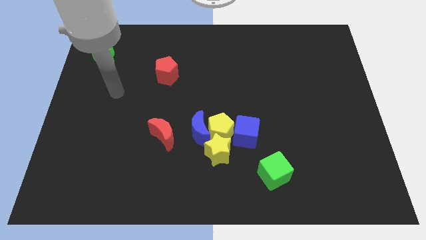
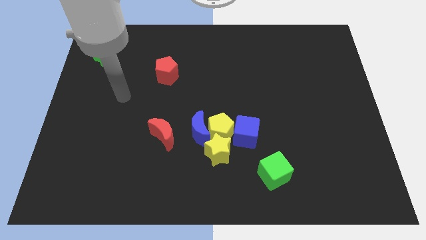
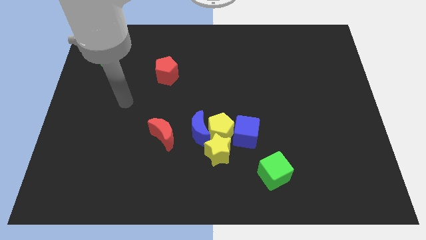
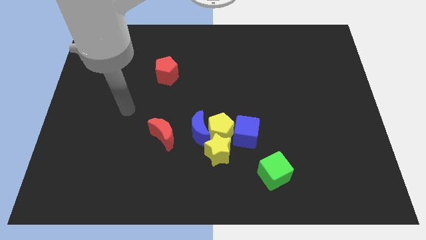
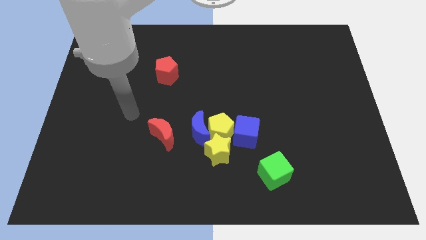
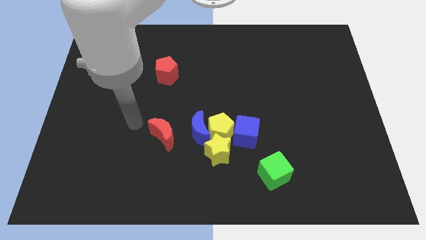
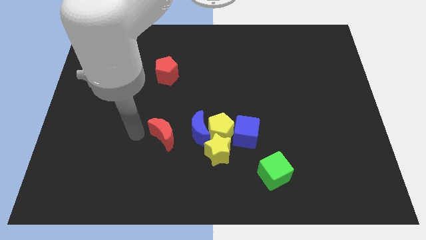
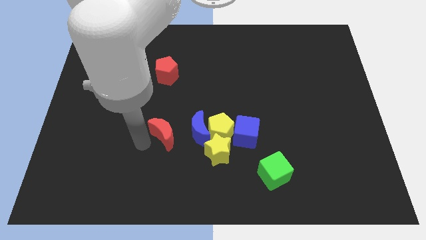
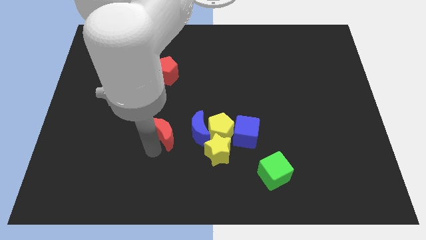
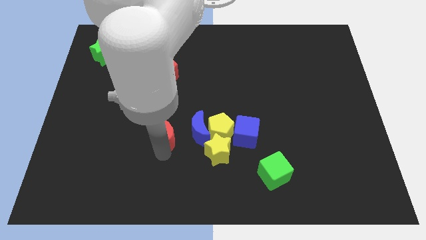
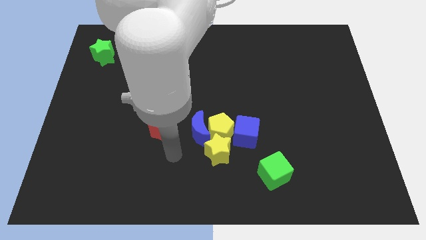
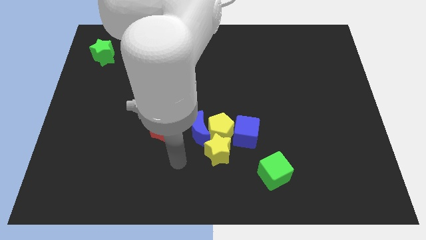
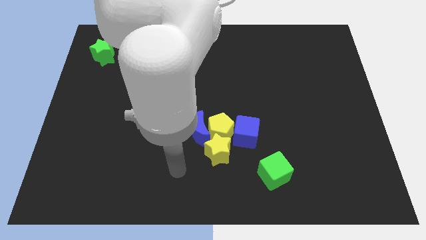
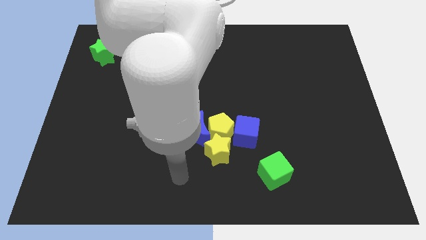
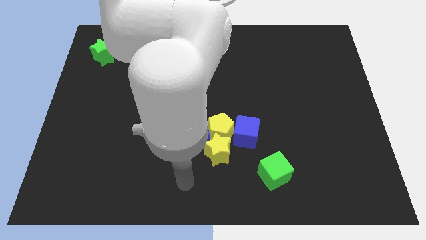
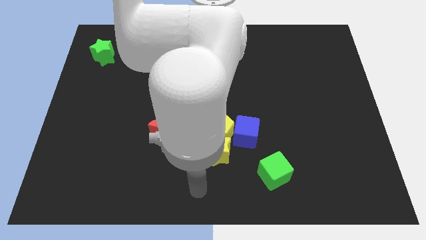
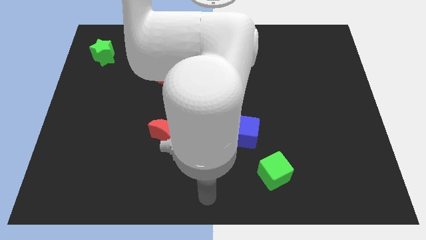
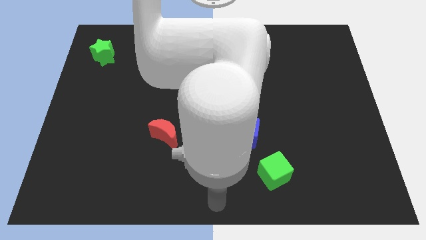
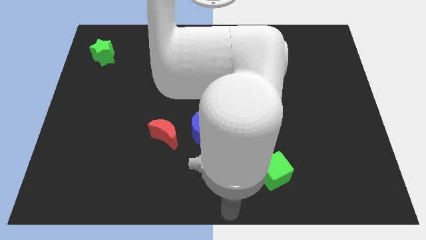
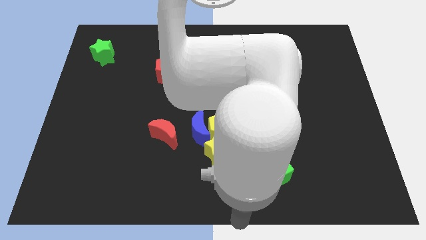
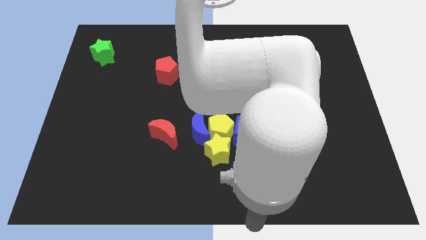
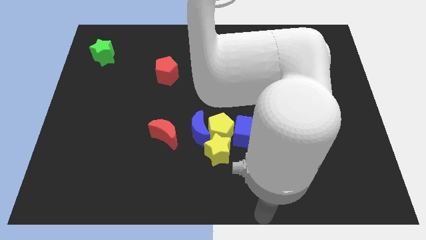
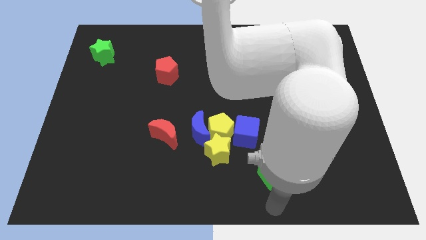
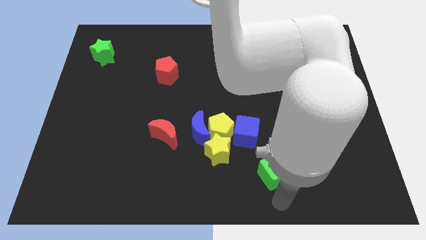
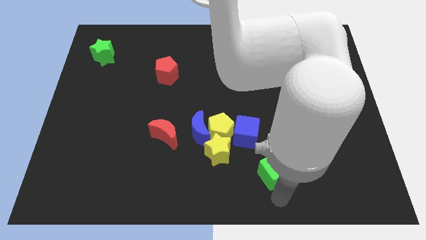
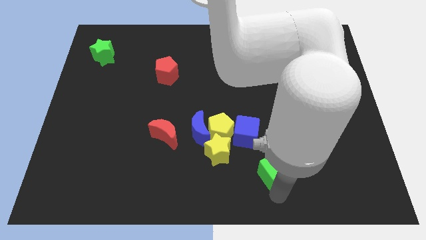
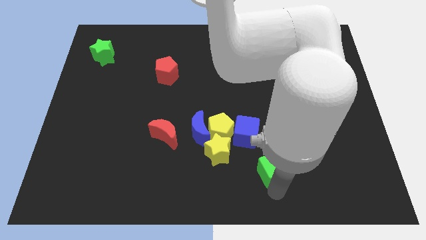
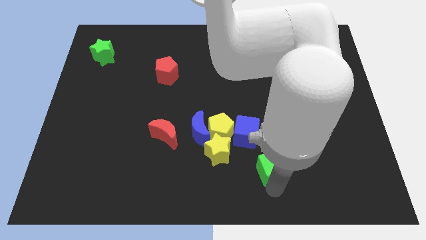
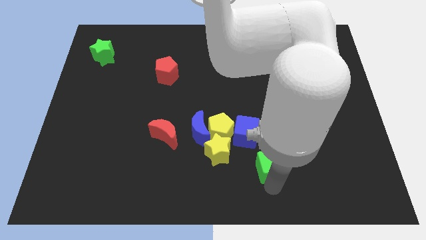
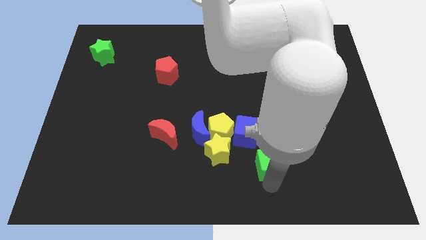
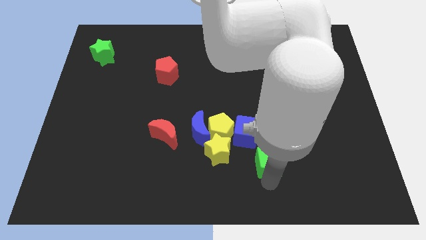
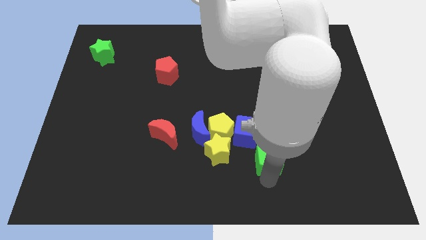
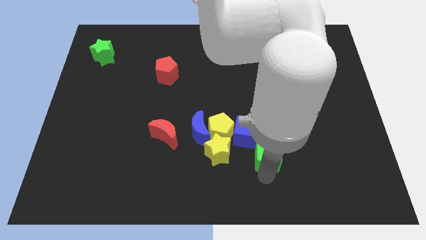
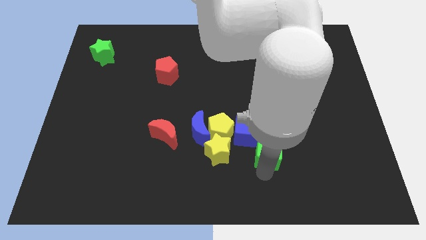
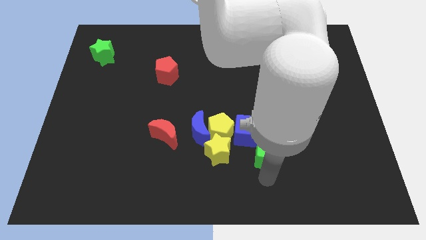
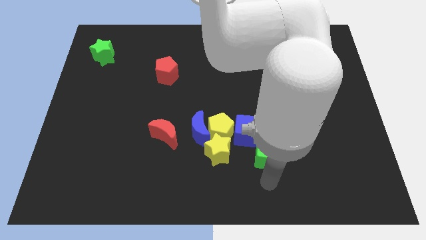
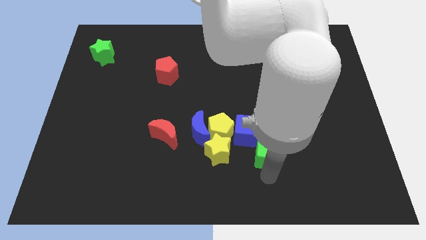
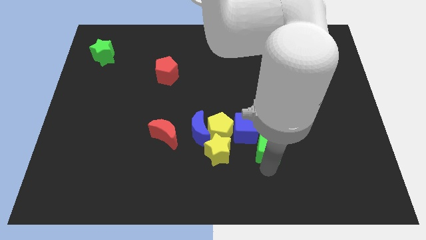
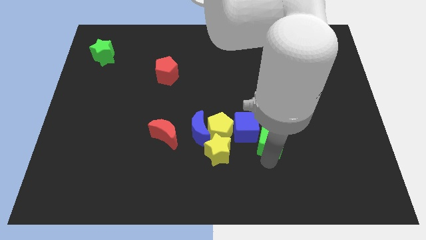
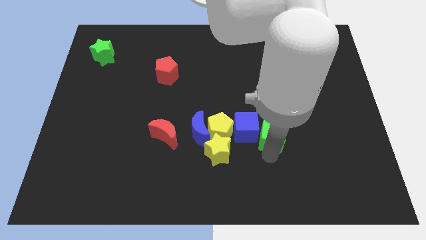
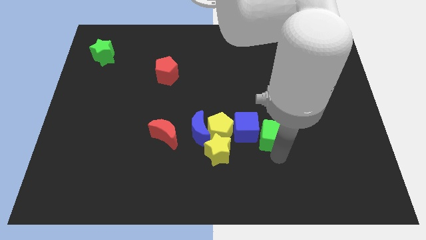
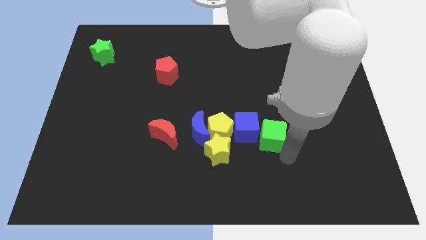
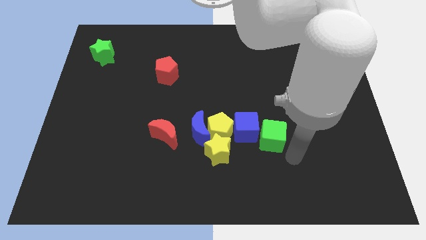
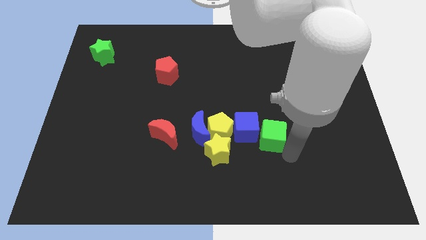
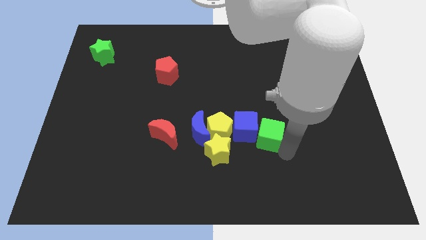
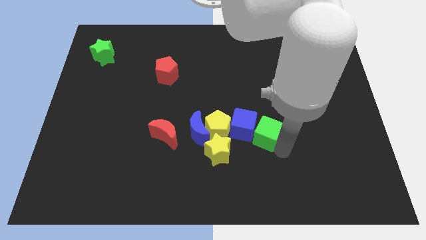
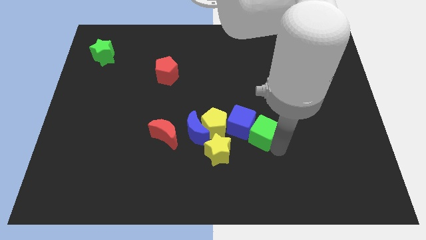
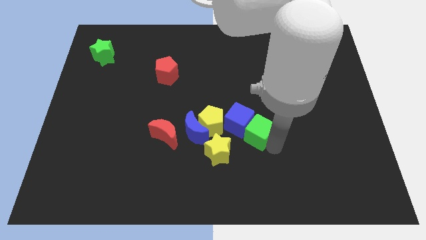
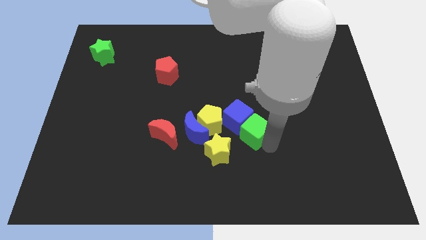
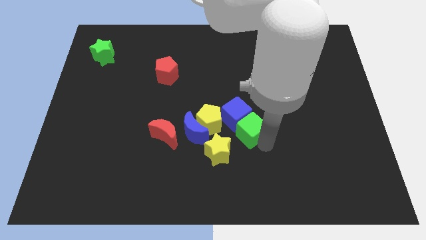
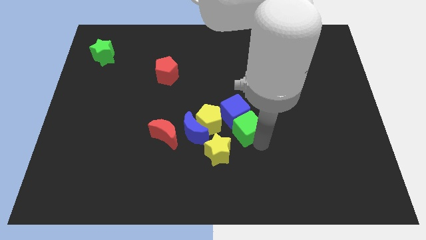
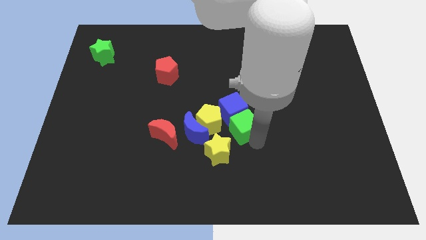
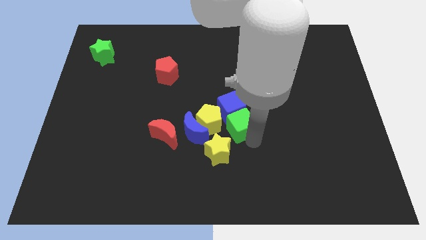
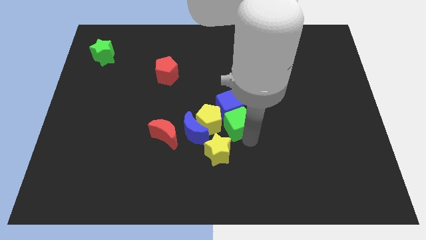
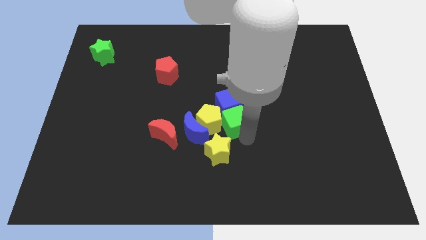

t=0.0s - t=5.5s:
slide the green cube to the top right side of the yellow pentagon
